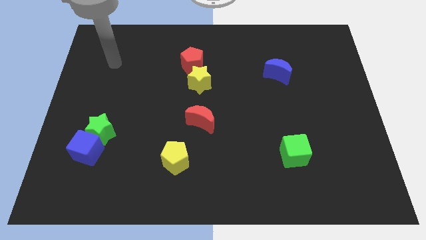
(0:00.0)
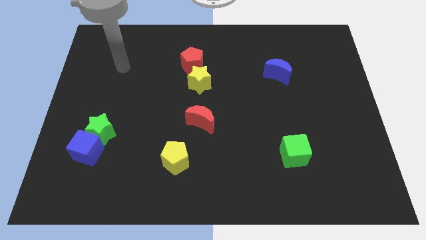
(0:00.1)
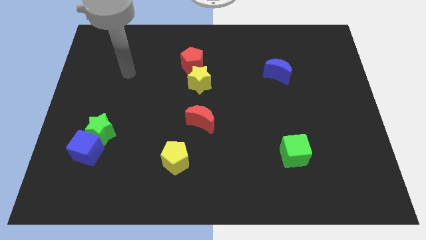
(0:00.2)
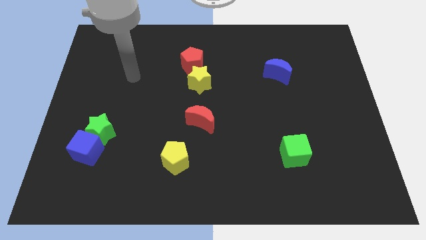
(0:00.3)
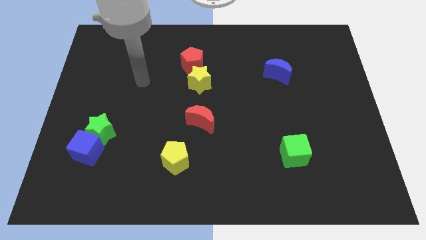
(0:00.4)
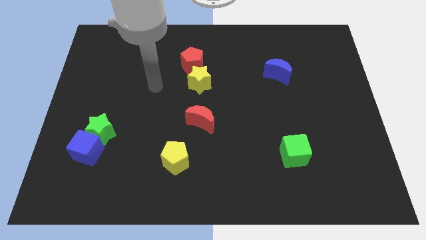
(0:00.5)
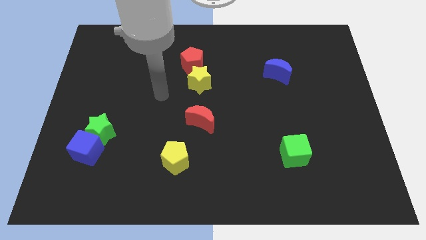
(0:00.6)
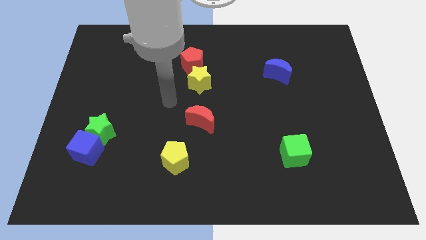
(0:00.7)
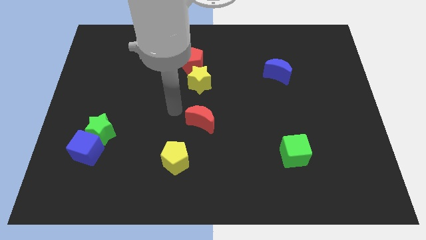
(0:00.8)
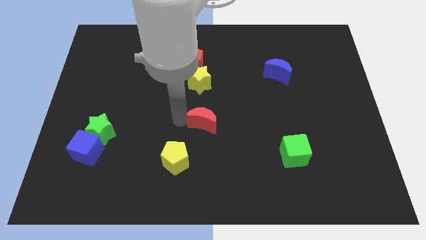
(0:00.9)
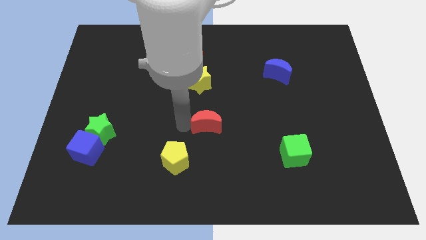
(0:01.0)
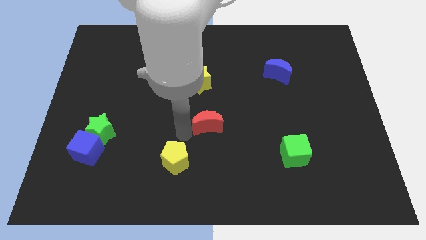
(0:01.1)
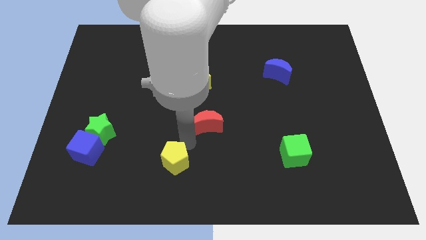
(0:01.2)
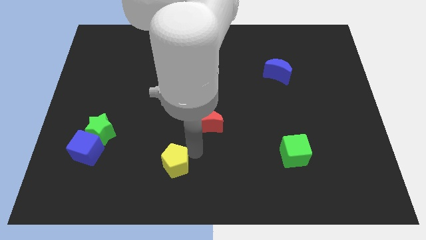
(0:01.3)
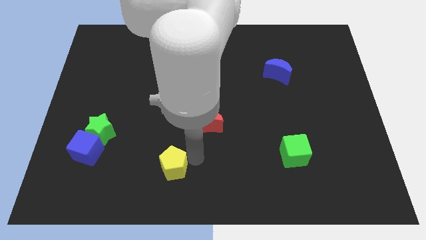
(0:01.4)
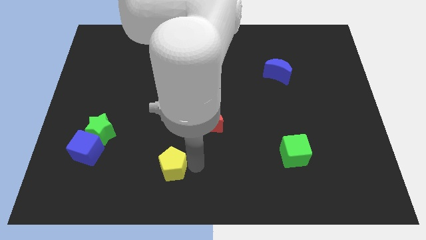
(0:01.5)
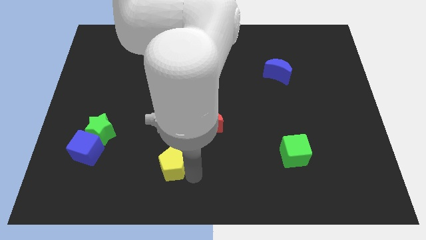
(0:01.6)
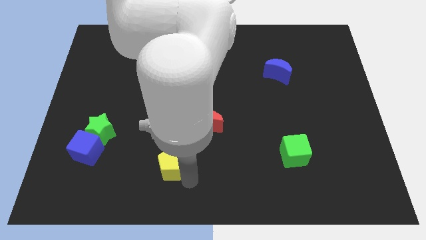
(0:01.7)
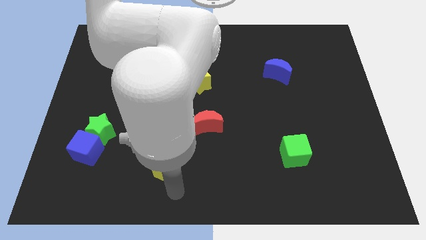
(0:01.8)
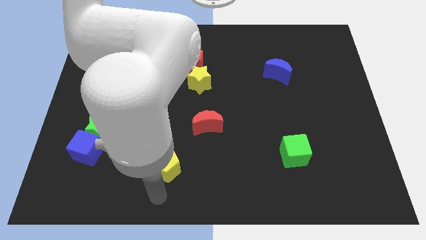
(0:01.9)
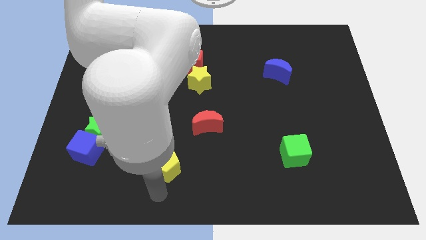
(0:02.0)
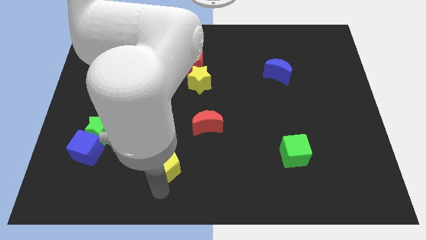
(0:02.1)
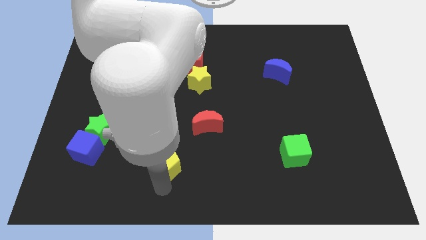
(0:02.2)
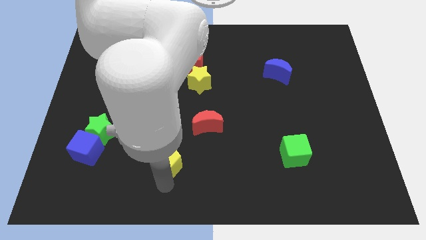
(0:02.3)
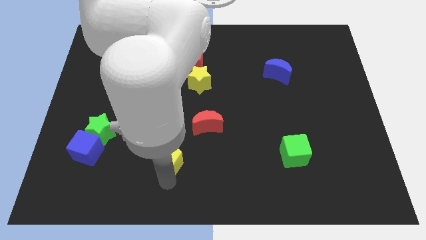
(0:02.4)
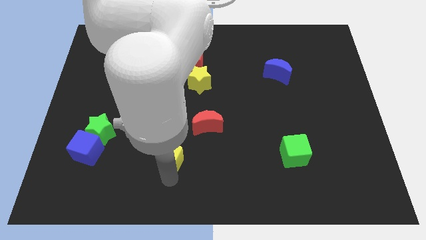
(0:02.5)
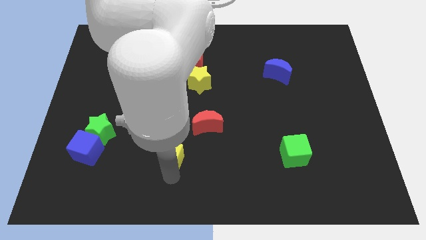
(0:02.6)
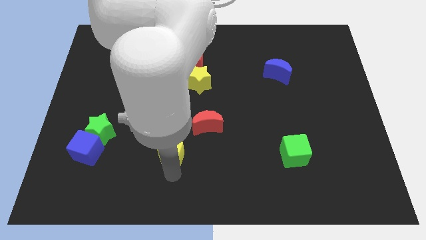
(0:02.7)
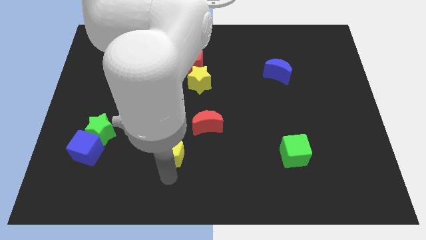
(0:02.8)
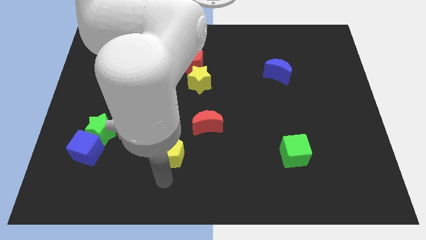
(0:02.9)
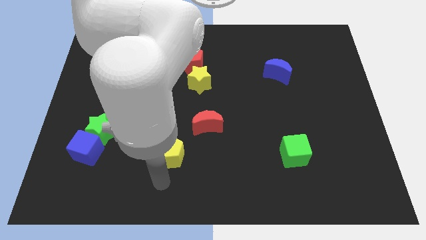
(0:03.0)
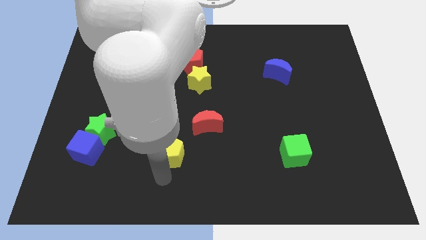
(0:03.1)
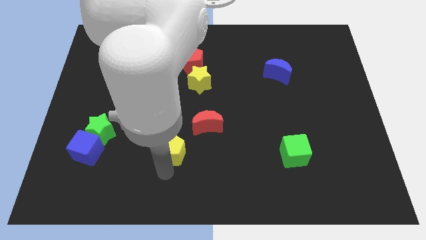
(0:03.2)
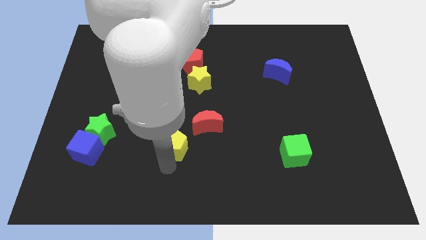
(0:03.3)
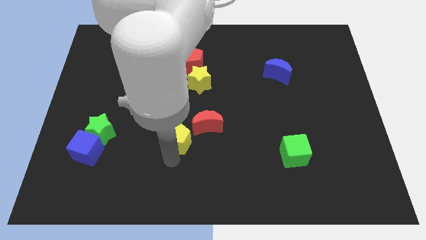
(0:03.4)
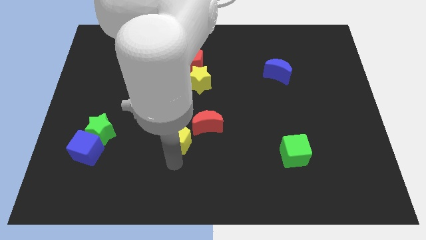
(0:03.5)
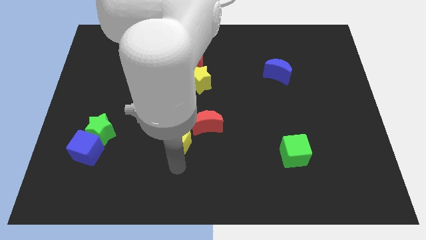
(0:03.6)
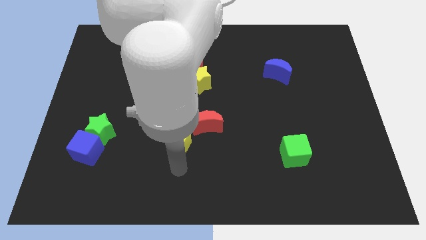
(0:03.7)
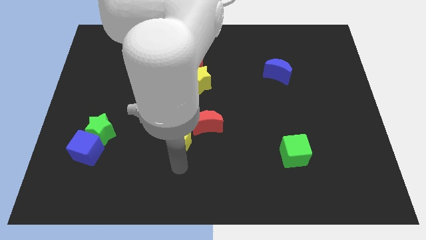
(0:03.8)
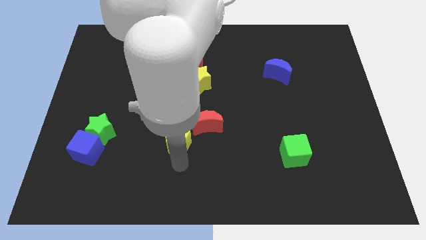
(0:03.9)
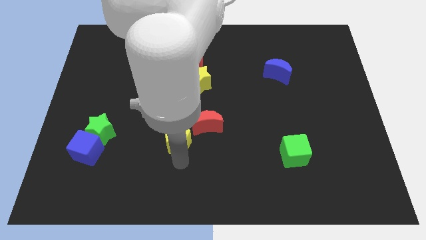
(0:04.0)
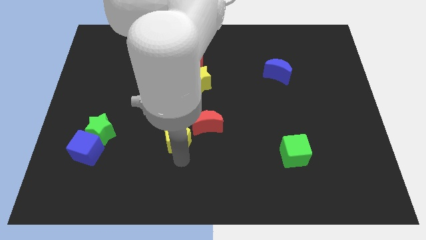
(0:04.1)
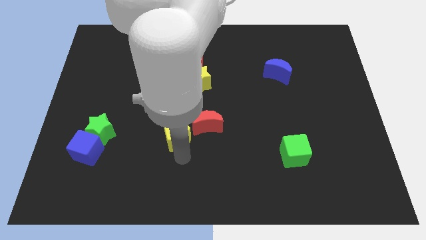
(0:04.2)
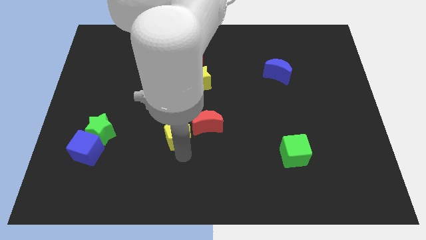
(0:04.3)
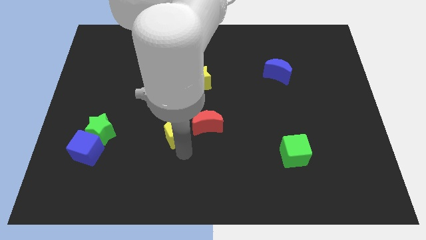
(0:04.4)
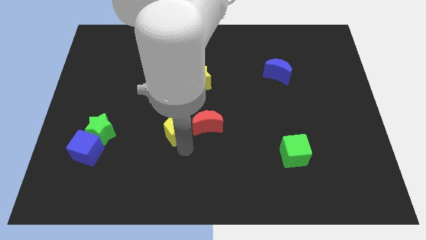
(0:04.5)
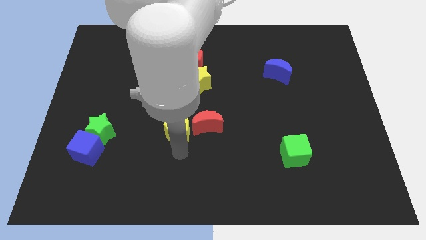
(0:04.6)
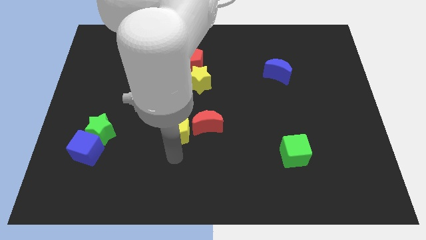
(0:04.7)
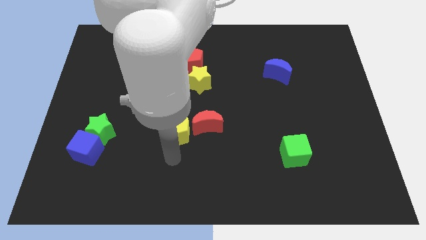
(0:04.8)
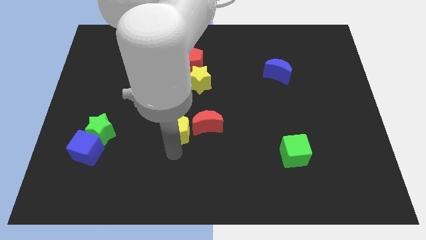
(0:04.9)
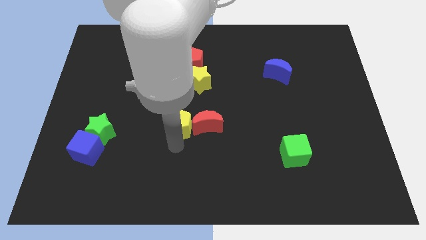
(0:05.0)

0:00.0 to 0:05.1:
put the yellow pentagon diagonally up and to the left of the red moon

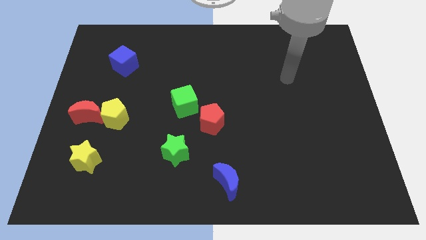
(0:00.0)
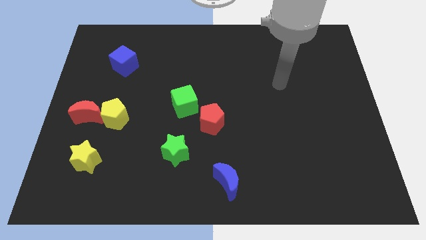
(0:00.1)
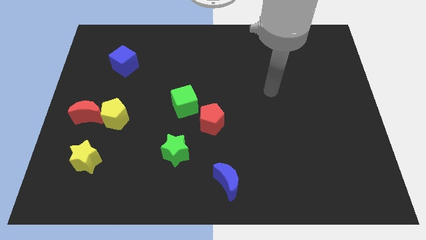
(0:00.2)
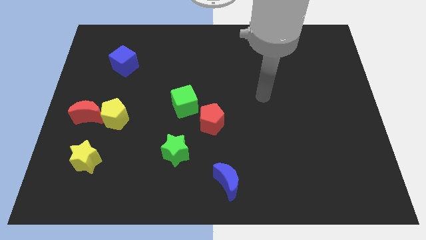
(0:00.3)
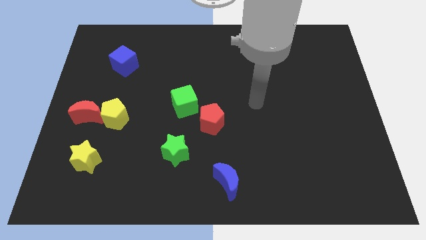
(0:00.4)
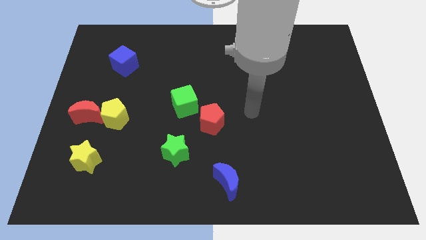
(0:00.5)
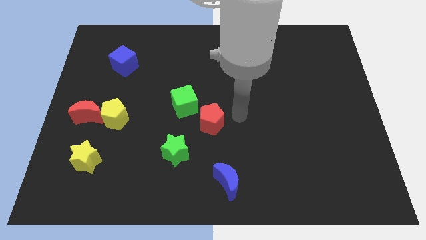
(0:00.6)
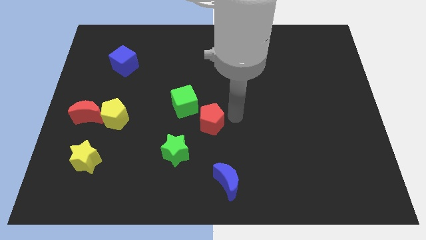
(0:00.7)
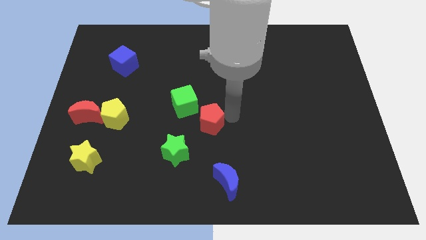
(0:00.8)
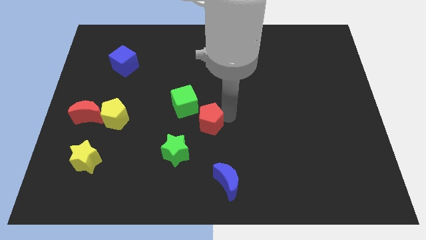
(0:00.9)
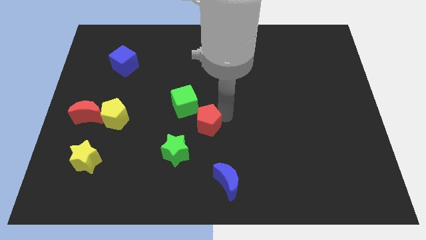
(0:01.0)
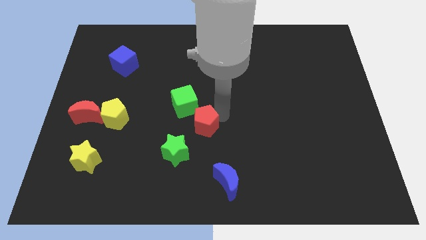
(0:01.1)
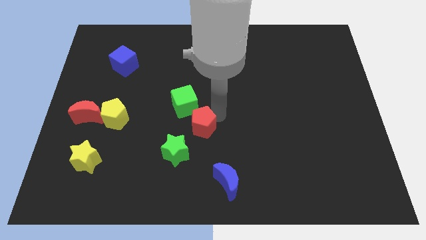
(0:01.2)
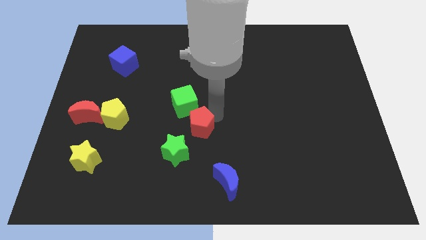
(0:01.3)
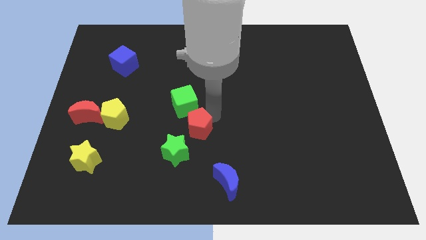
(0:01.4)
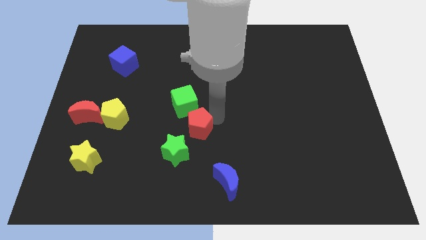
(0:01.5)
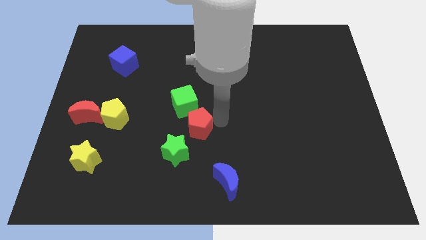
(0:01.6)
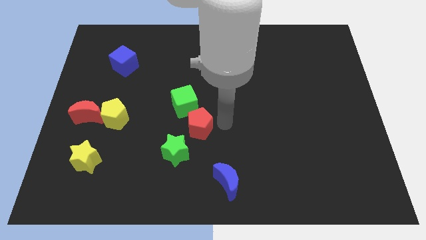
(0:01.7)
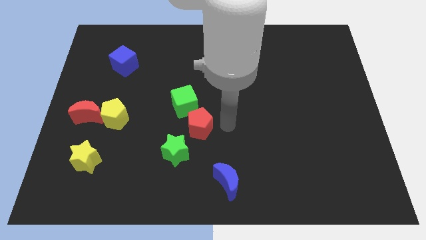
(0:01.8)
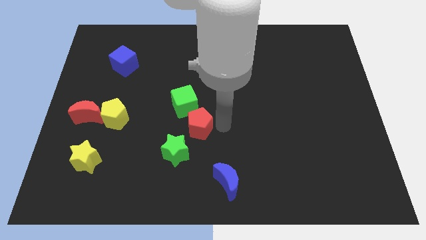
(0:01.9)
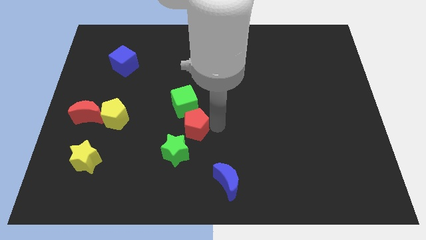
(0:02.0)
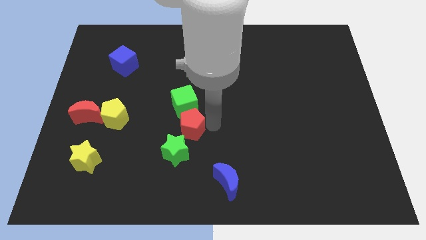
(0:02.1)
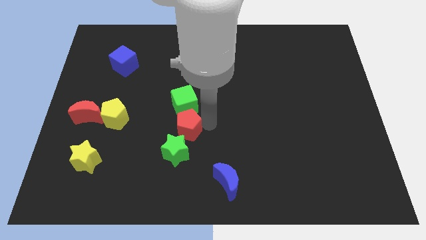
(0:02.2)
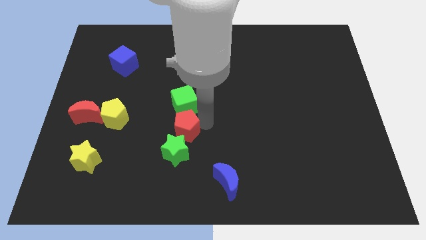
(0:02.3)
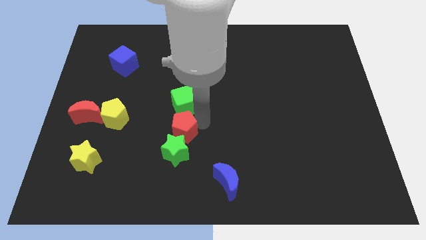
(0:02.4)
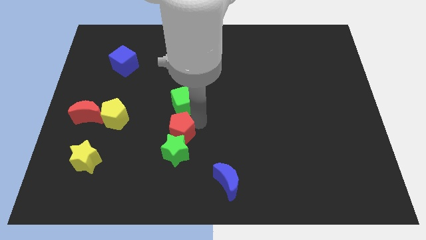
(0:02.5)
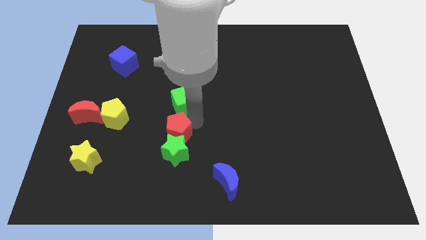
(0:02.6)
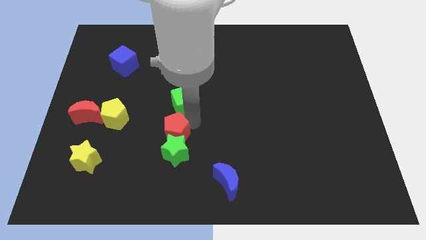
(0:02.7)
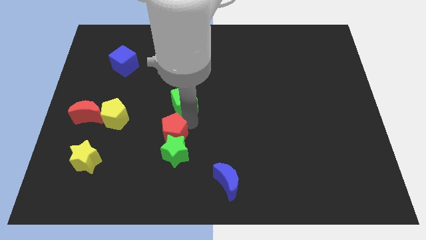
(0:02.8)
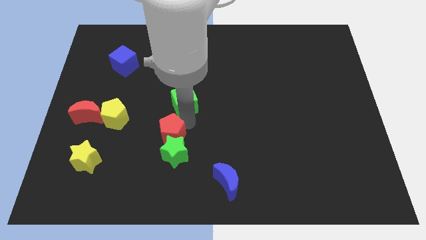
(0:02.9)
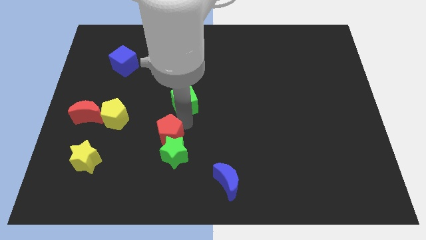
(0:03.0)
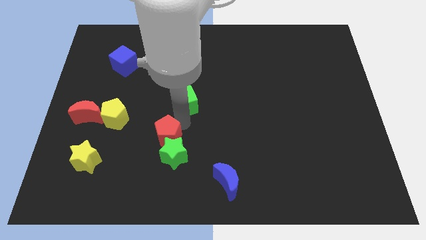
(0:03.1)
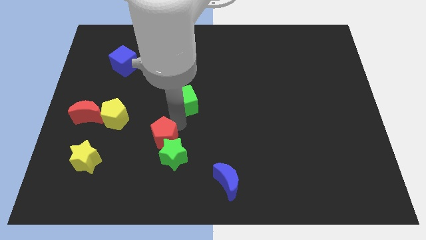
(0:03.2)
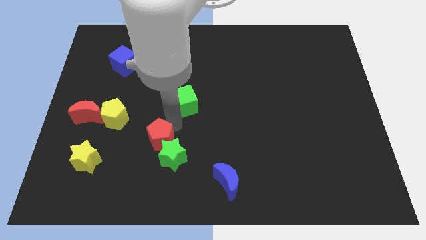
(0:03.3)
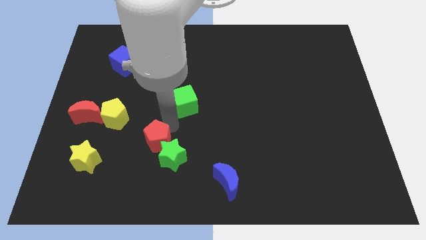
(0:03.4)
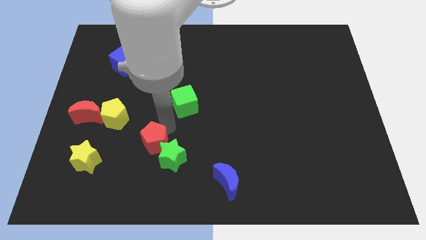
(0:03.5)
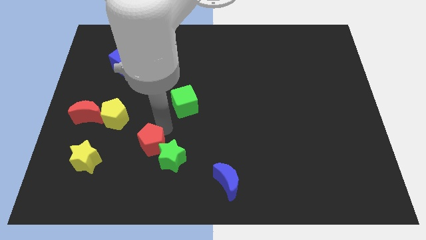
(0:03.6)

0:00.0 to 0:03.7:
put the red pentagon just right of the yellow star
